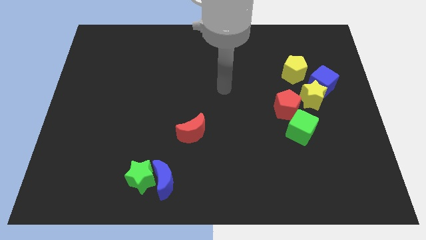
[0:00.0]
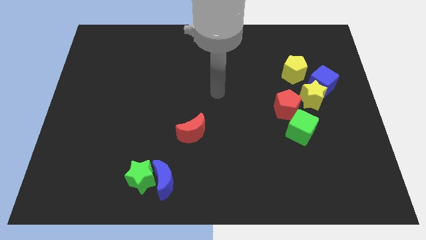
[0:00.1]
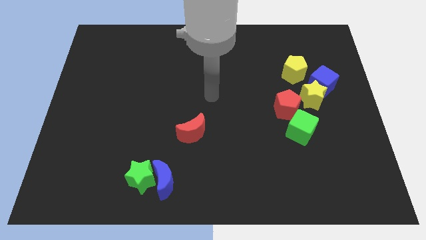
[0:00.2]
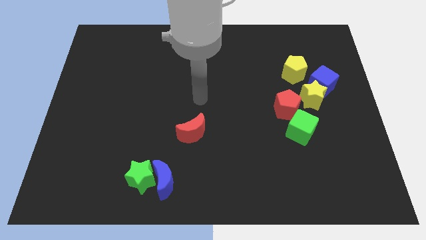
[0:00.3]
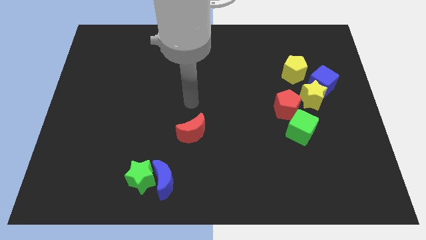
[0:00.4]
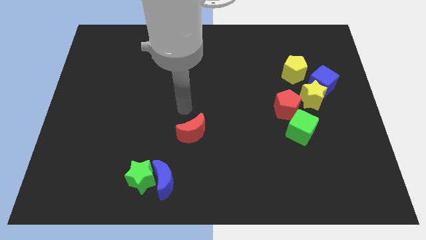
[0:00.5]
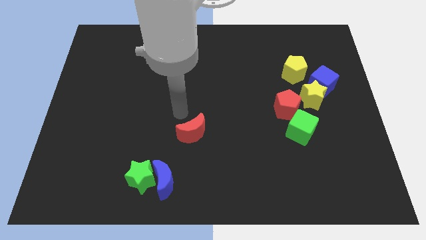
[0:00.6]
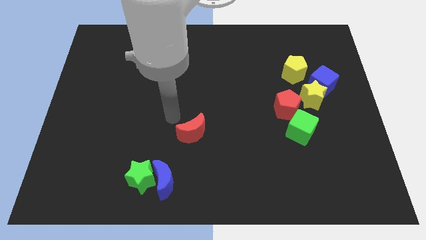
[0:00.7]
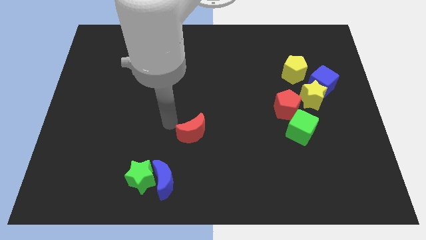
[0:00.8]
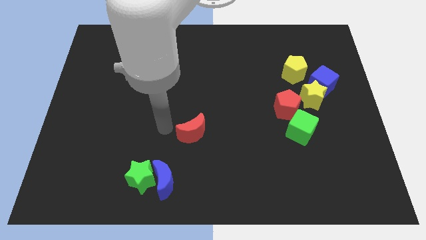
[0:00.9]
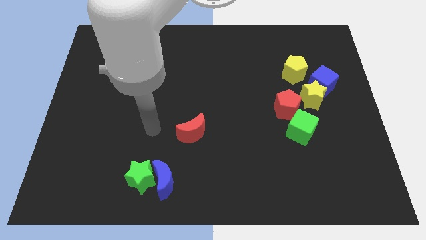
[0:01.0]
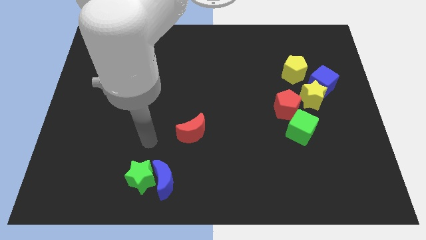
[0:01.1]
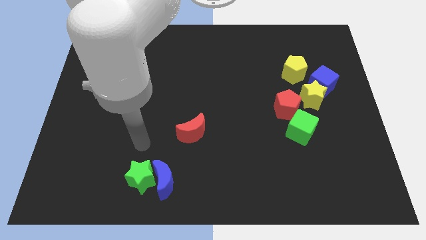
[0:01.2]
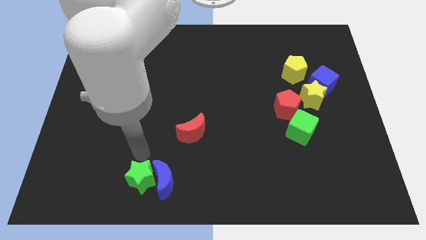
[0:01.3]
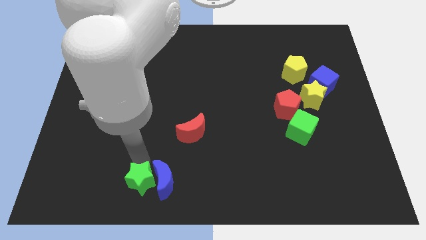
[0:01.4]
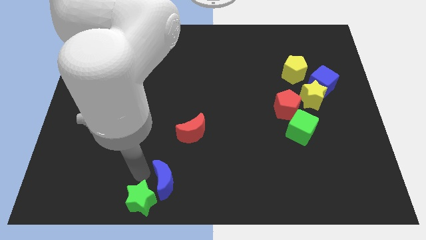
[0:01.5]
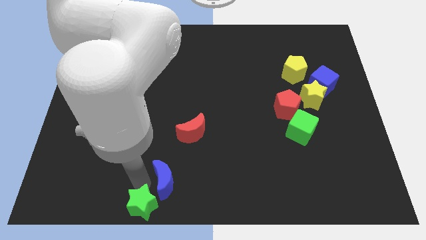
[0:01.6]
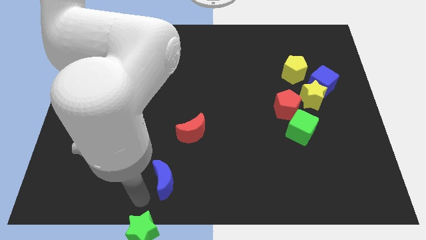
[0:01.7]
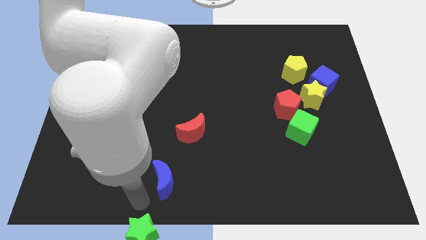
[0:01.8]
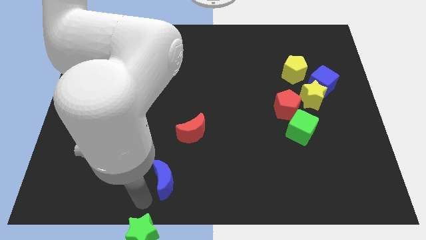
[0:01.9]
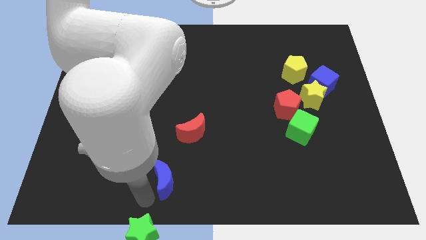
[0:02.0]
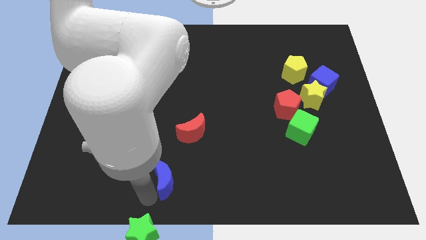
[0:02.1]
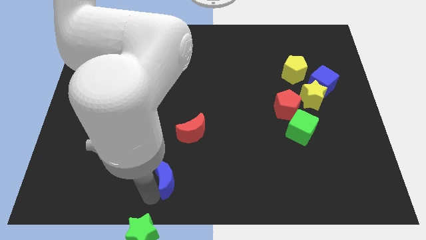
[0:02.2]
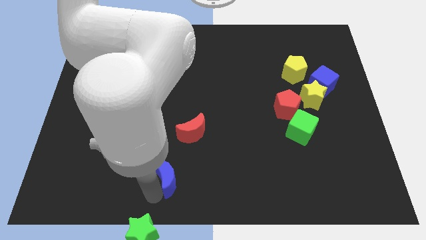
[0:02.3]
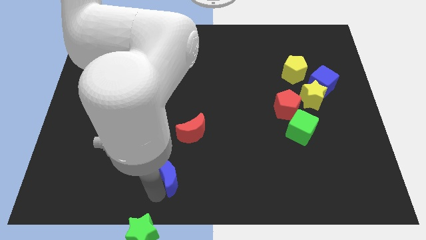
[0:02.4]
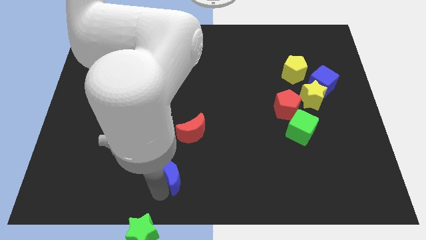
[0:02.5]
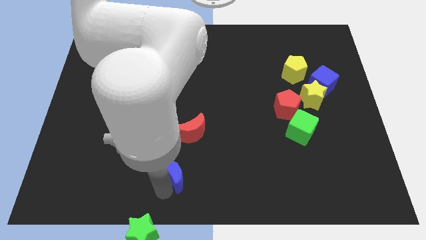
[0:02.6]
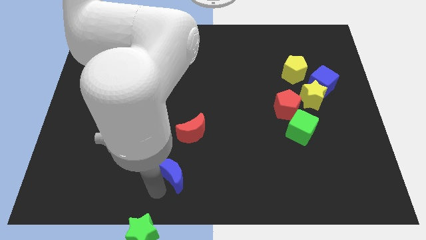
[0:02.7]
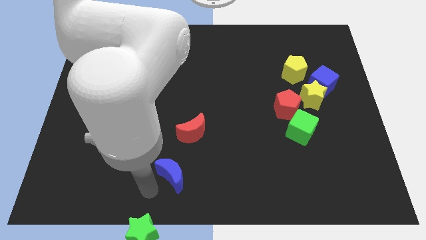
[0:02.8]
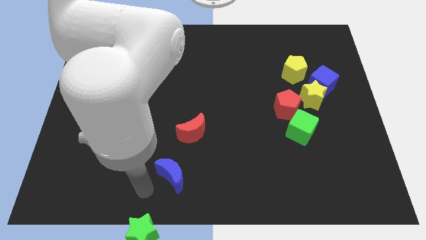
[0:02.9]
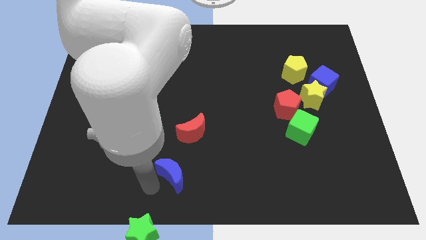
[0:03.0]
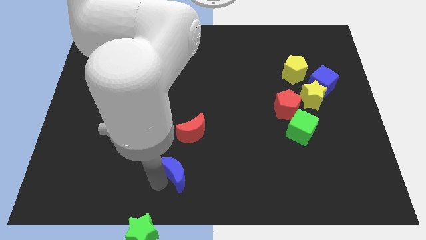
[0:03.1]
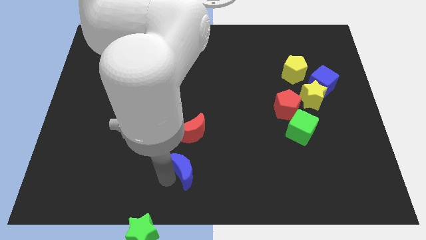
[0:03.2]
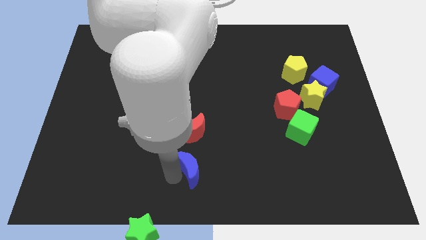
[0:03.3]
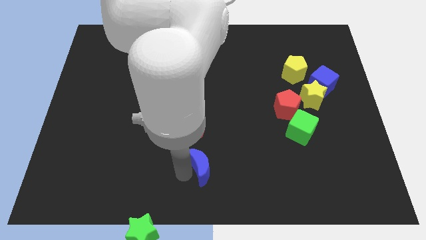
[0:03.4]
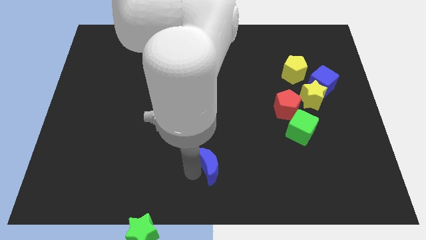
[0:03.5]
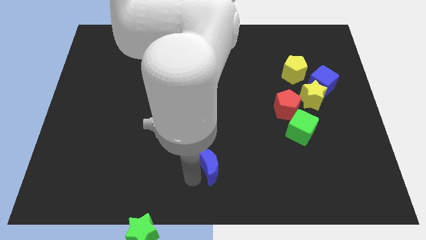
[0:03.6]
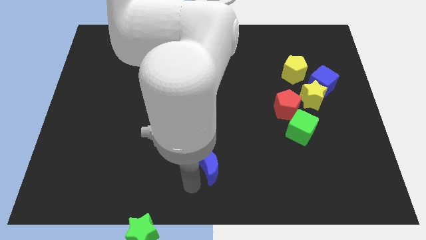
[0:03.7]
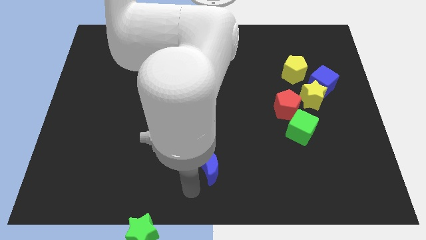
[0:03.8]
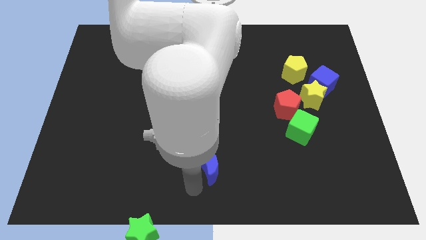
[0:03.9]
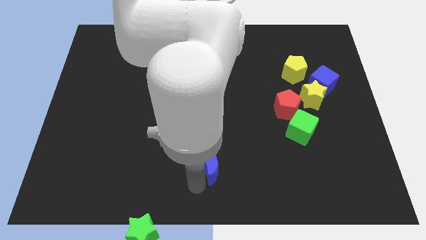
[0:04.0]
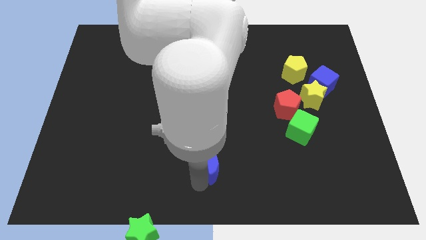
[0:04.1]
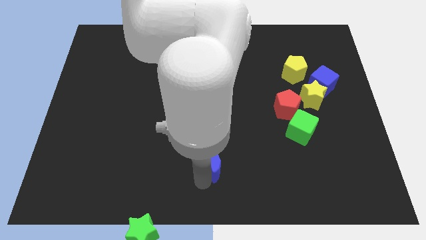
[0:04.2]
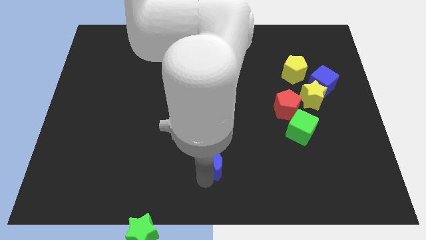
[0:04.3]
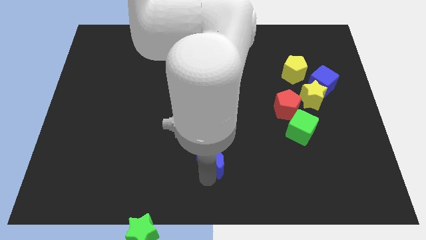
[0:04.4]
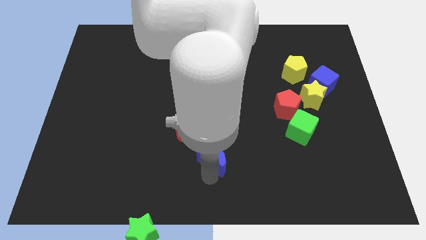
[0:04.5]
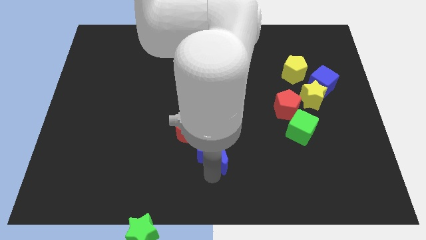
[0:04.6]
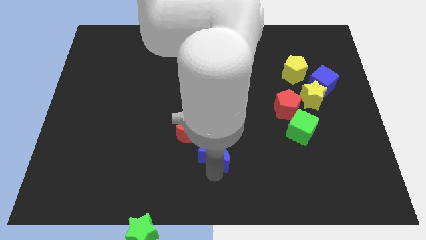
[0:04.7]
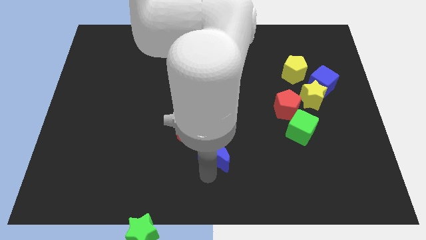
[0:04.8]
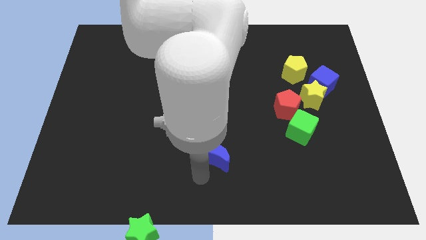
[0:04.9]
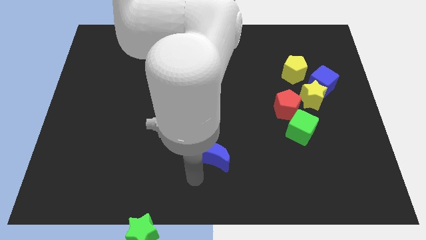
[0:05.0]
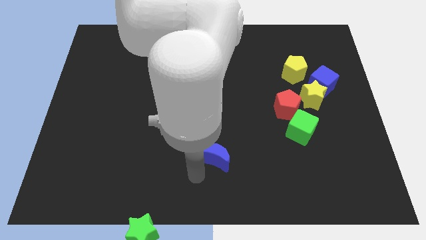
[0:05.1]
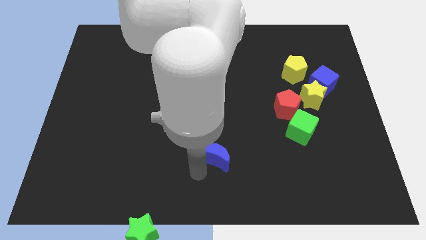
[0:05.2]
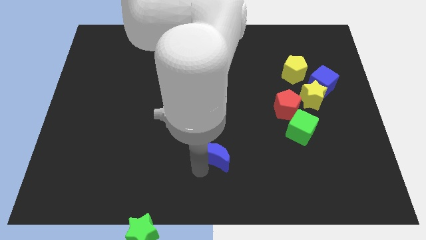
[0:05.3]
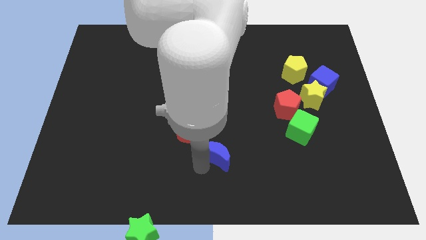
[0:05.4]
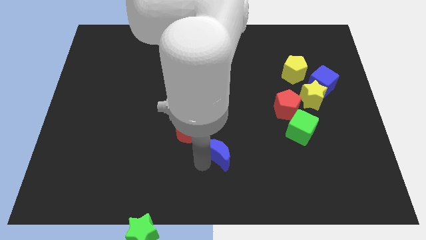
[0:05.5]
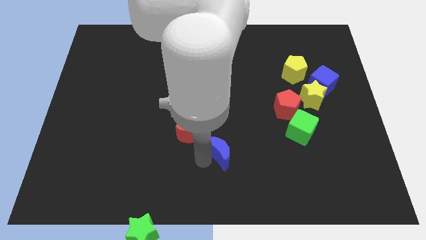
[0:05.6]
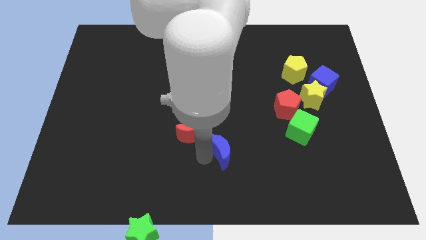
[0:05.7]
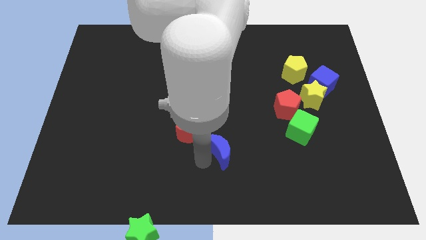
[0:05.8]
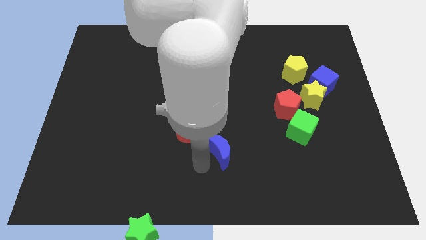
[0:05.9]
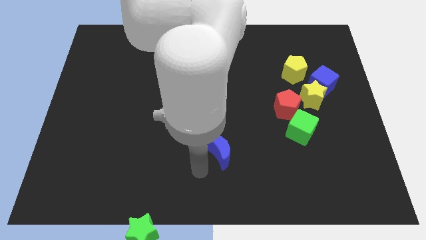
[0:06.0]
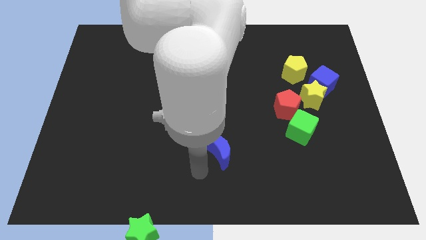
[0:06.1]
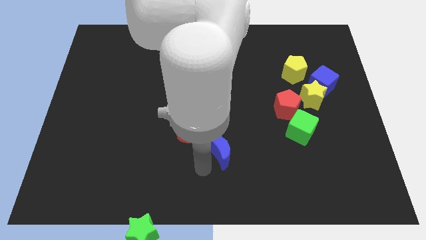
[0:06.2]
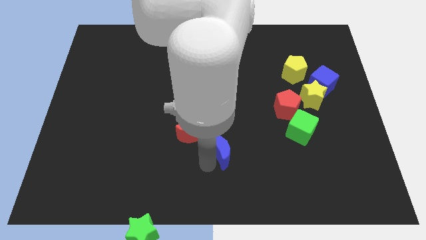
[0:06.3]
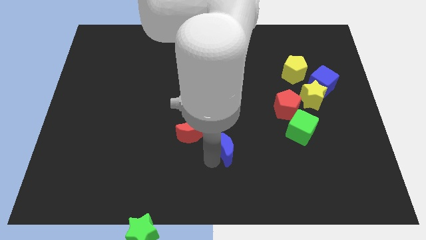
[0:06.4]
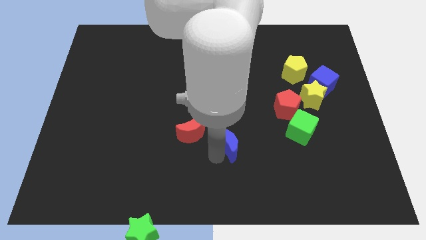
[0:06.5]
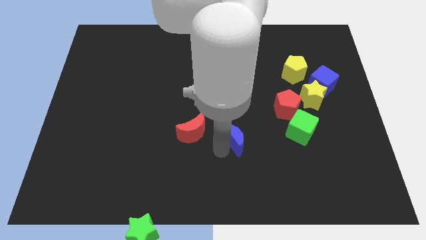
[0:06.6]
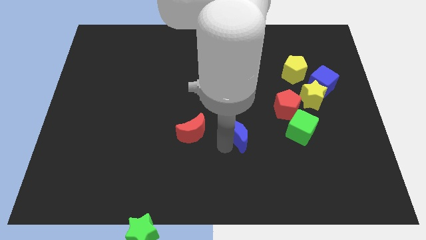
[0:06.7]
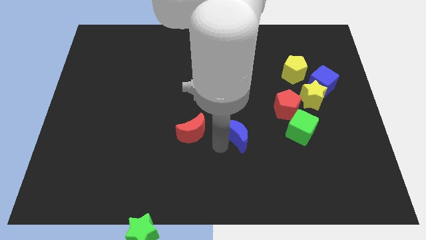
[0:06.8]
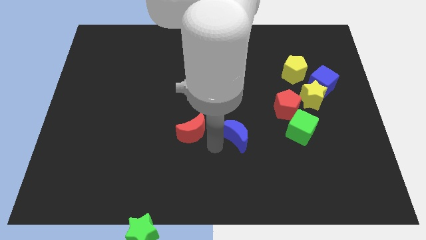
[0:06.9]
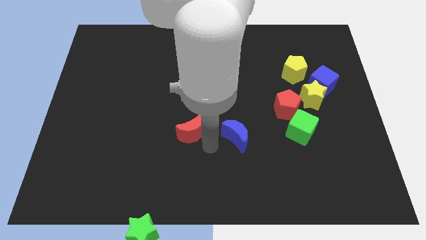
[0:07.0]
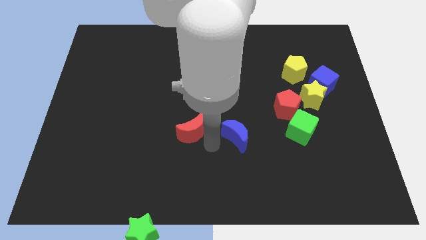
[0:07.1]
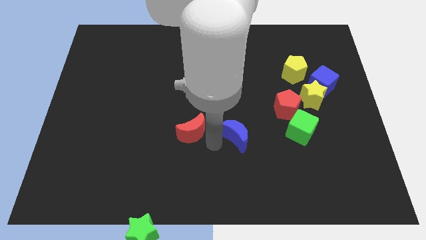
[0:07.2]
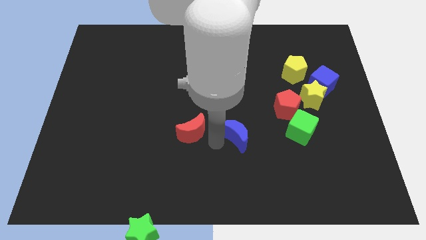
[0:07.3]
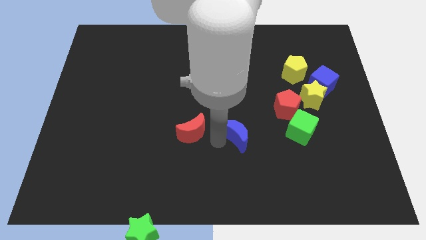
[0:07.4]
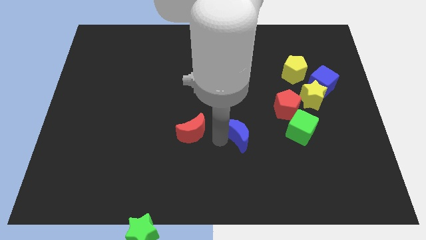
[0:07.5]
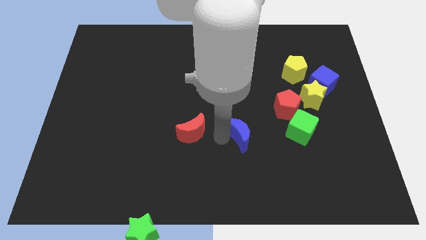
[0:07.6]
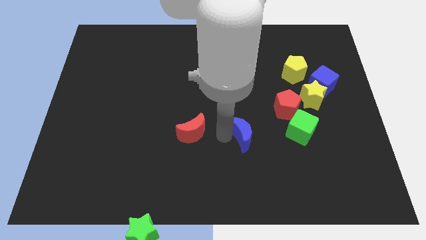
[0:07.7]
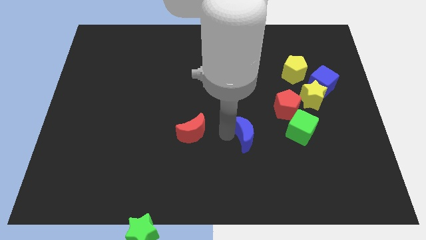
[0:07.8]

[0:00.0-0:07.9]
put the blue moon to the bottom left side of the red pentagon
